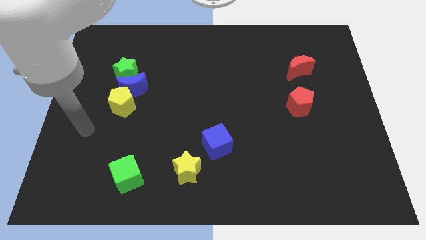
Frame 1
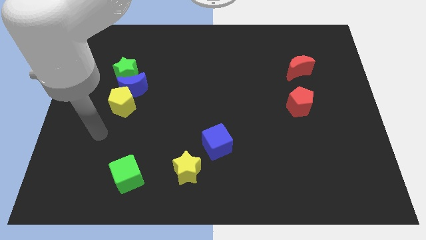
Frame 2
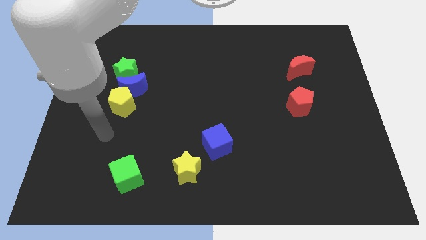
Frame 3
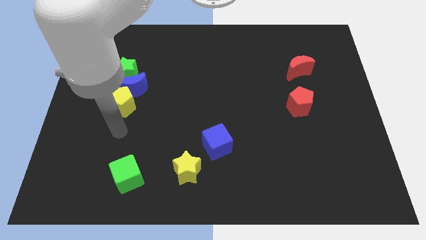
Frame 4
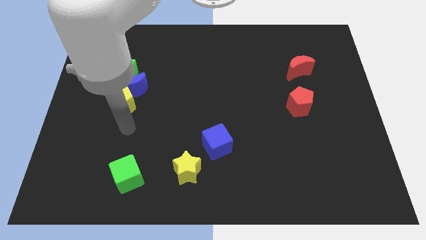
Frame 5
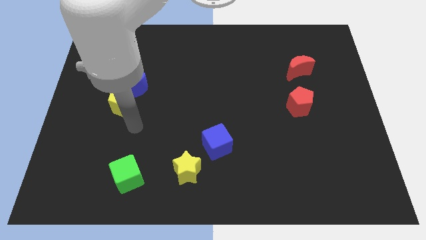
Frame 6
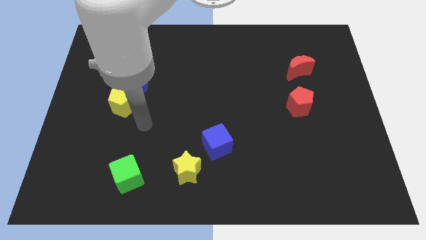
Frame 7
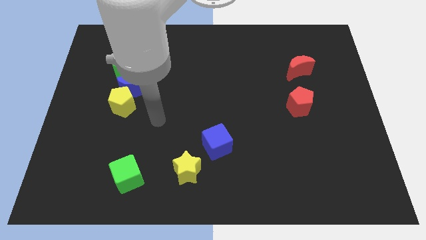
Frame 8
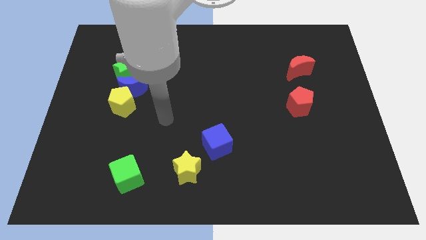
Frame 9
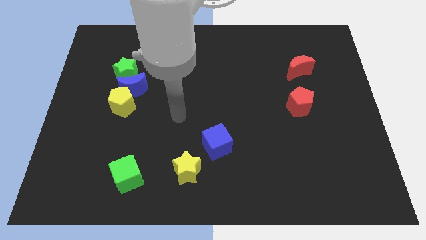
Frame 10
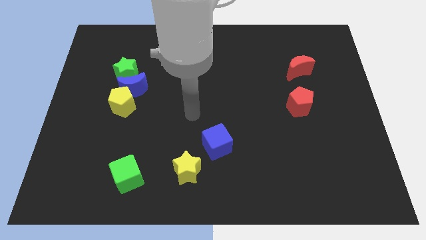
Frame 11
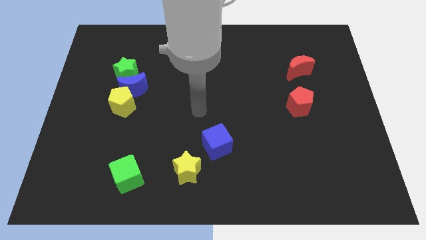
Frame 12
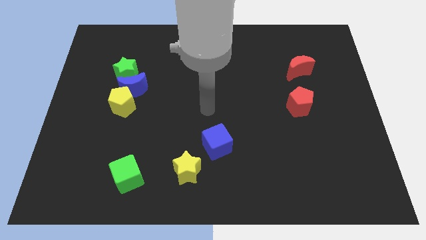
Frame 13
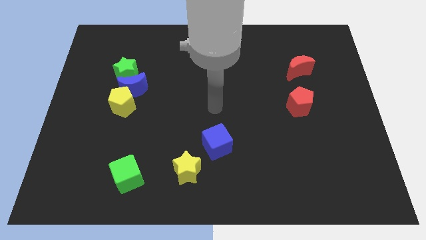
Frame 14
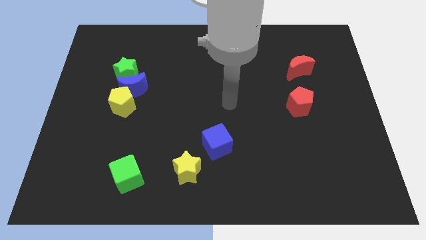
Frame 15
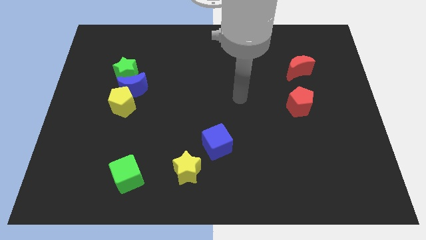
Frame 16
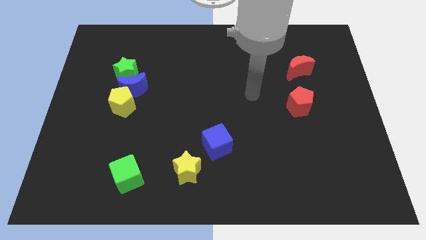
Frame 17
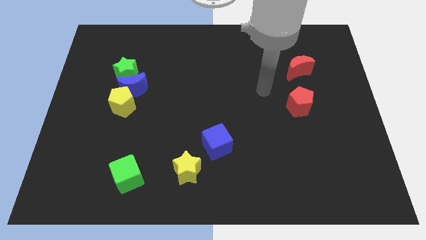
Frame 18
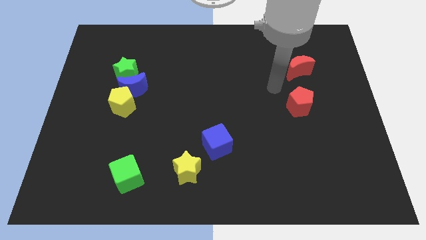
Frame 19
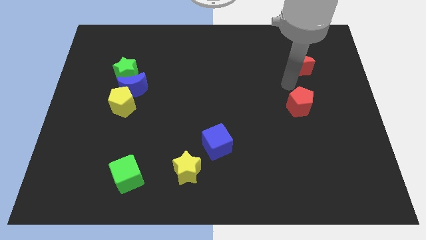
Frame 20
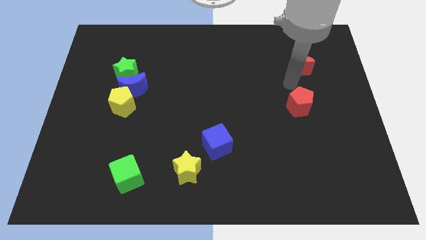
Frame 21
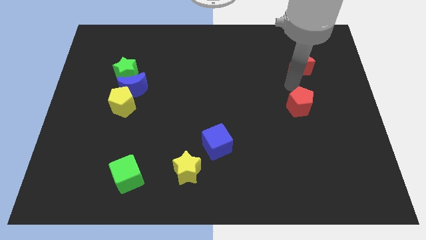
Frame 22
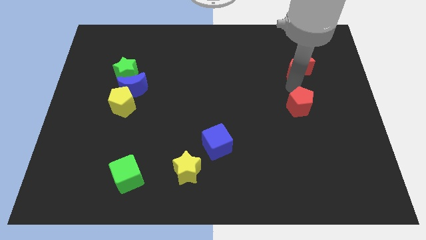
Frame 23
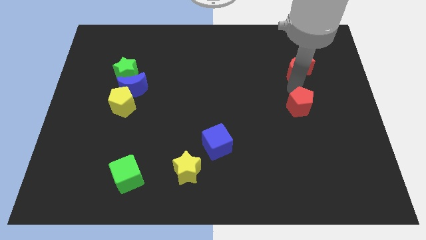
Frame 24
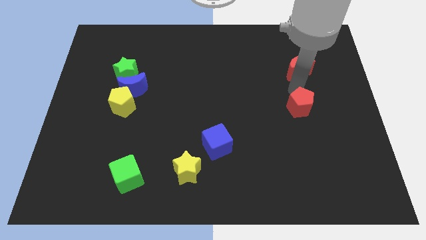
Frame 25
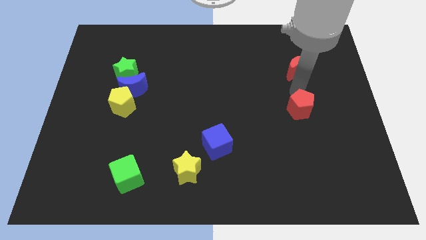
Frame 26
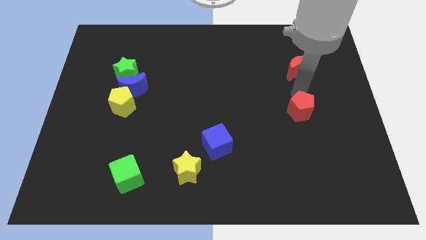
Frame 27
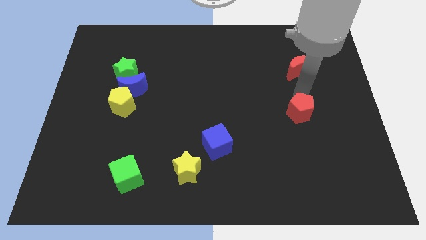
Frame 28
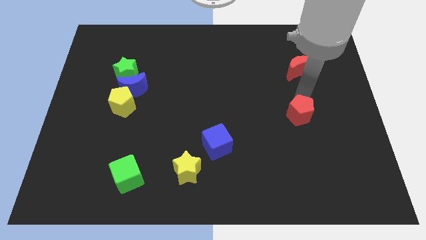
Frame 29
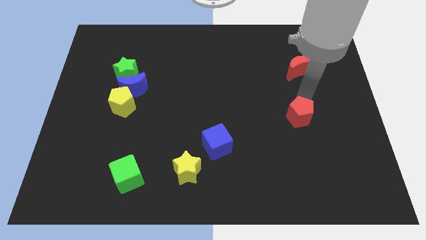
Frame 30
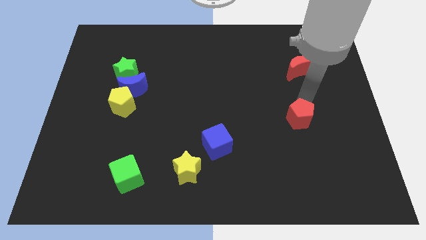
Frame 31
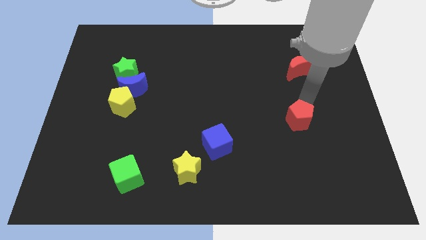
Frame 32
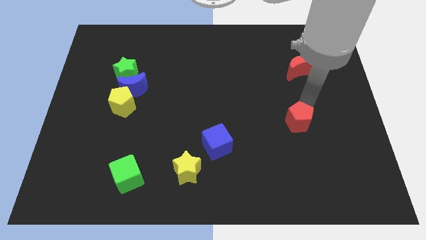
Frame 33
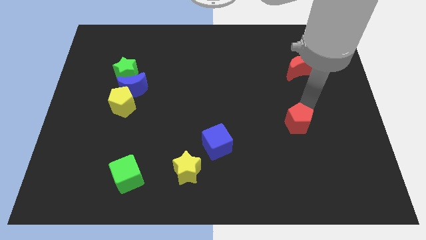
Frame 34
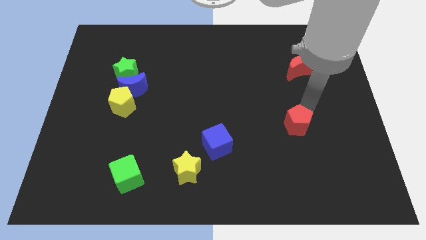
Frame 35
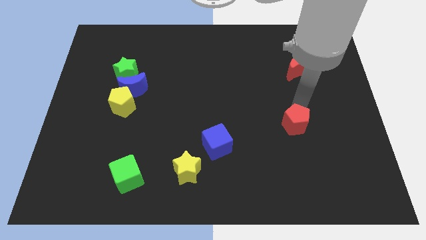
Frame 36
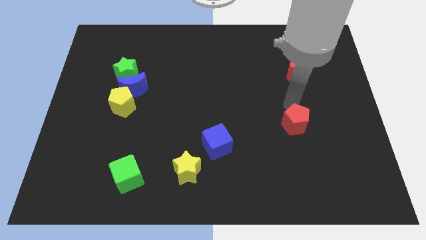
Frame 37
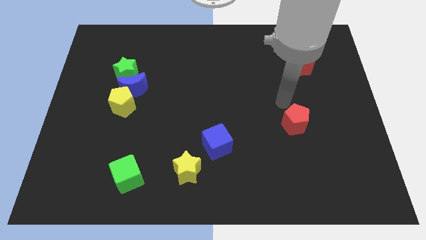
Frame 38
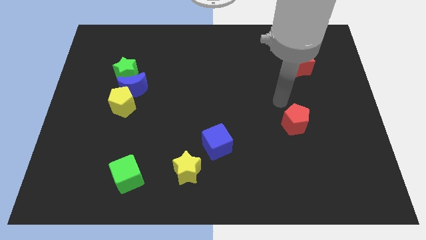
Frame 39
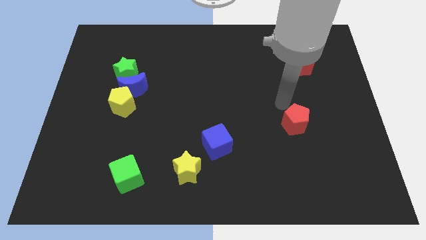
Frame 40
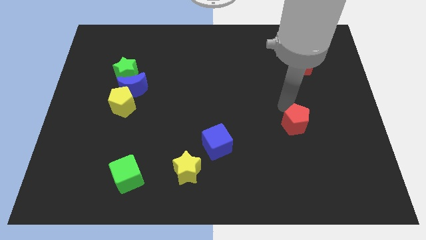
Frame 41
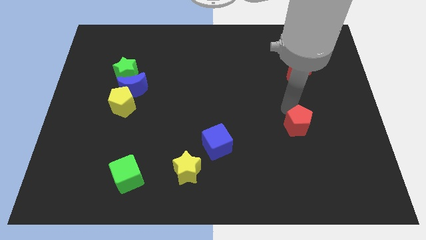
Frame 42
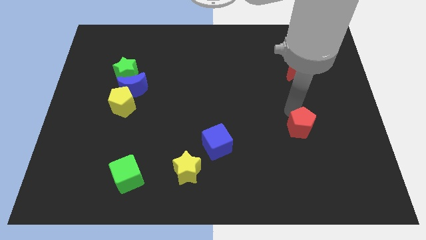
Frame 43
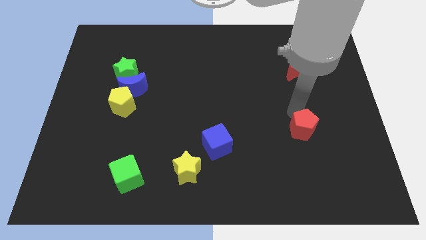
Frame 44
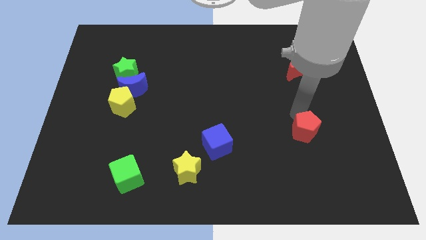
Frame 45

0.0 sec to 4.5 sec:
slightly move the red pentagon down

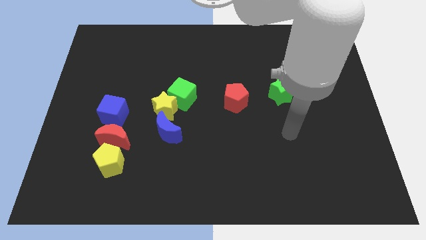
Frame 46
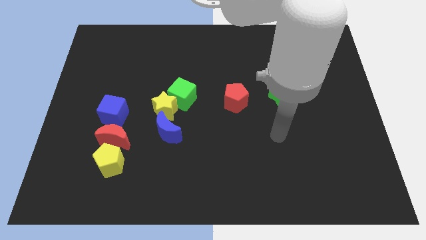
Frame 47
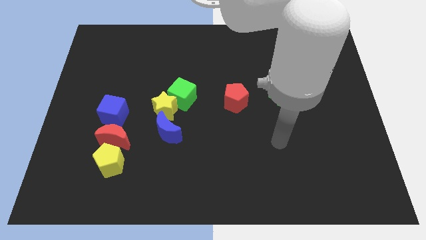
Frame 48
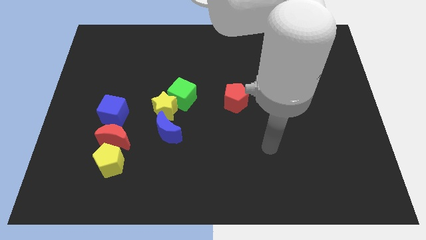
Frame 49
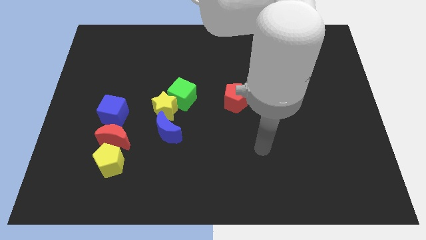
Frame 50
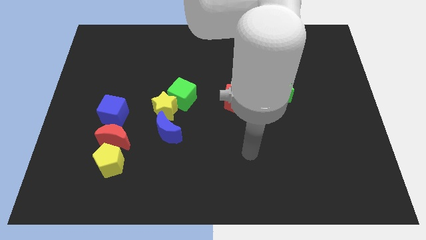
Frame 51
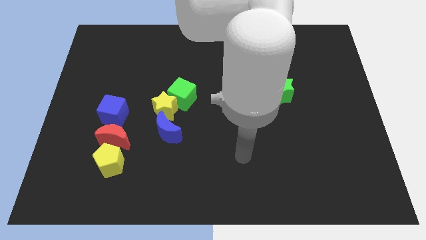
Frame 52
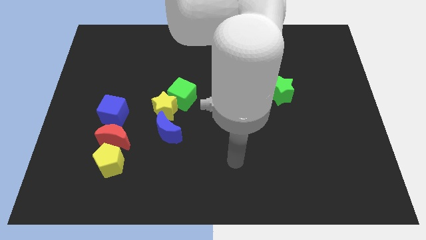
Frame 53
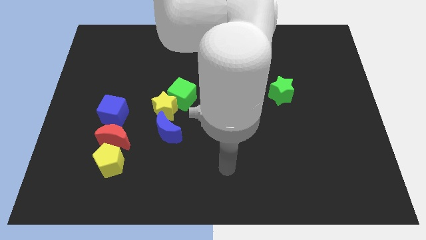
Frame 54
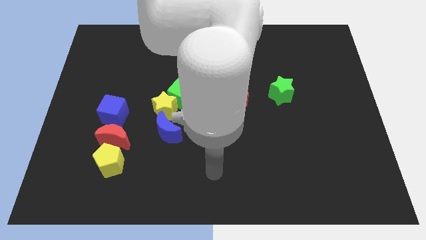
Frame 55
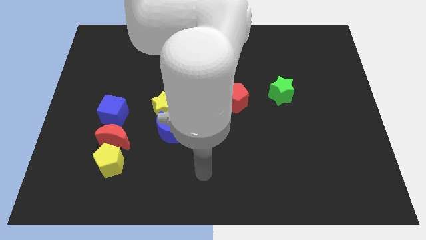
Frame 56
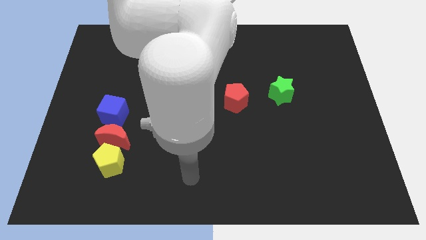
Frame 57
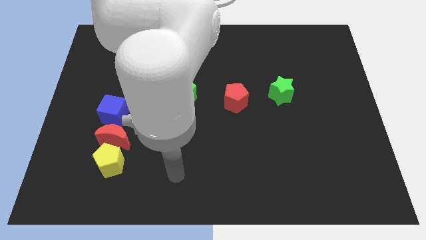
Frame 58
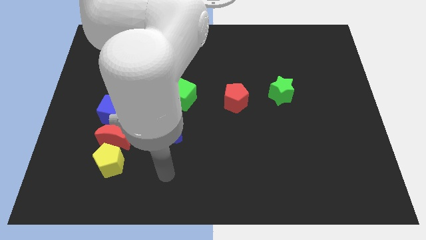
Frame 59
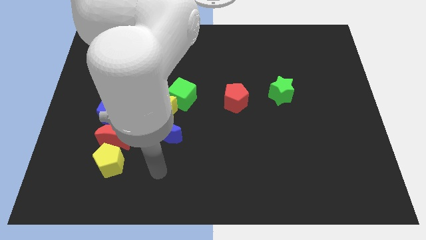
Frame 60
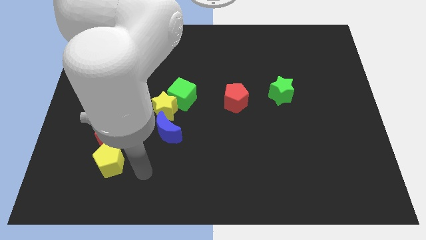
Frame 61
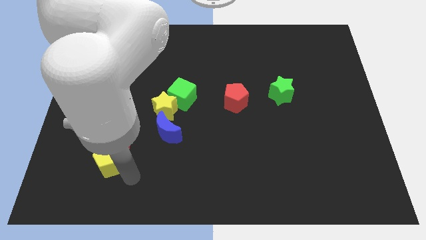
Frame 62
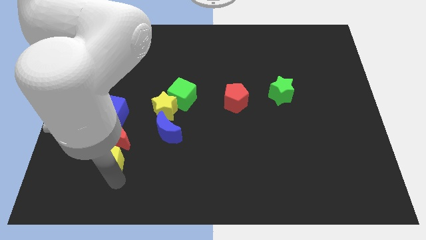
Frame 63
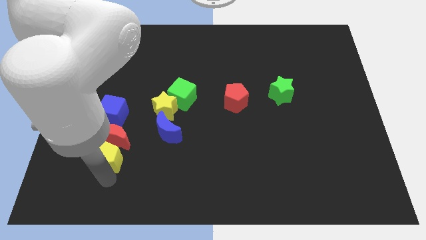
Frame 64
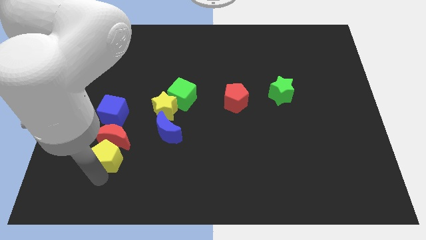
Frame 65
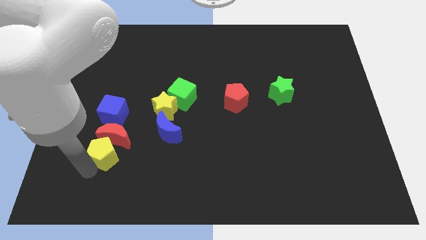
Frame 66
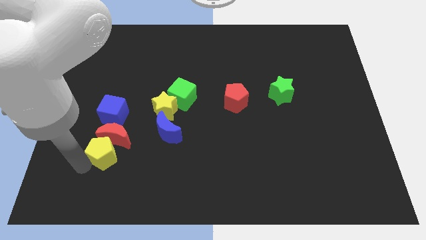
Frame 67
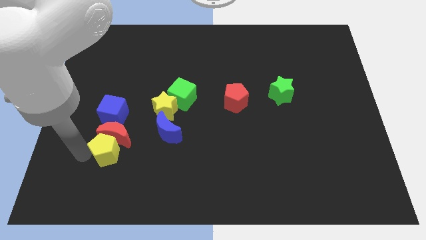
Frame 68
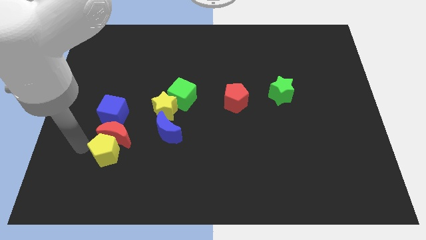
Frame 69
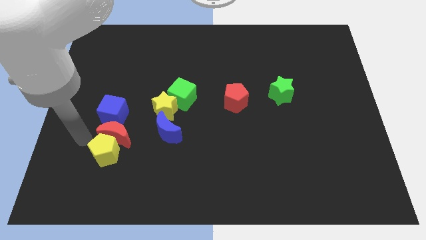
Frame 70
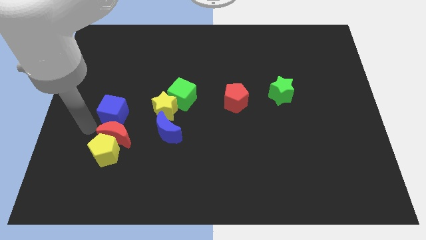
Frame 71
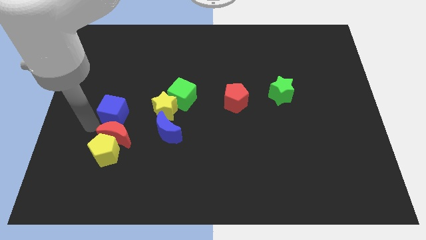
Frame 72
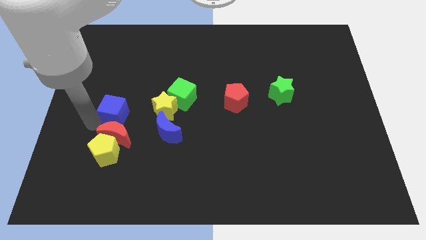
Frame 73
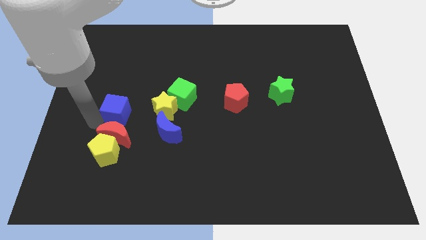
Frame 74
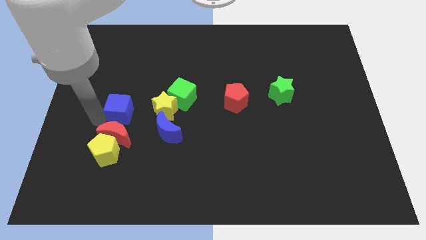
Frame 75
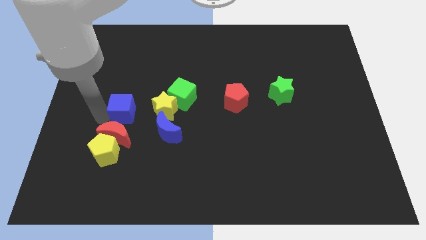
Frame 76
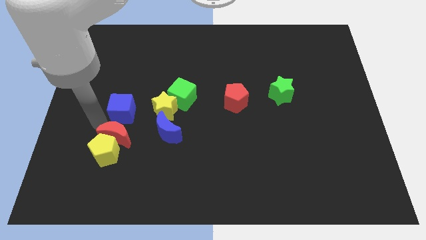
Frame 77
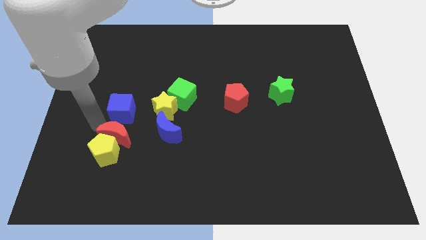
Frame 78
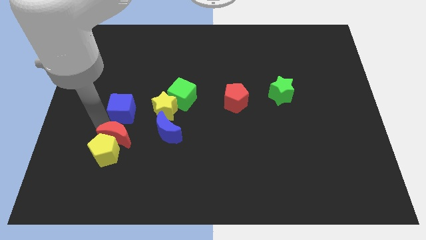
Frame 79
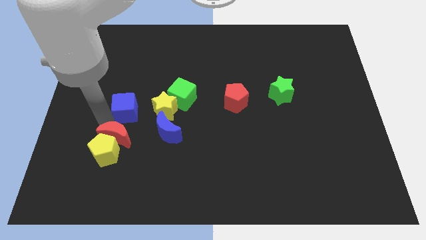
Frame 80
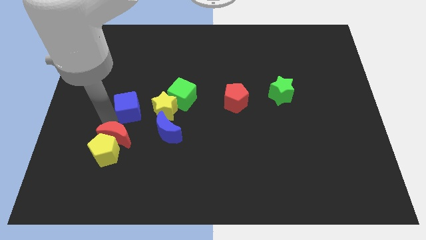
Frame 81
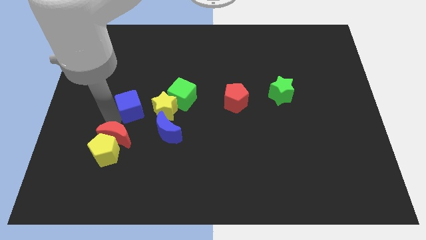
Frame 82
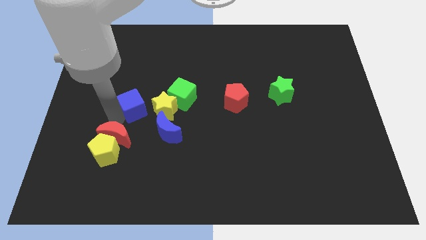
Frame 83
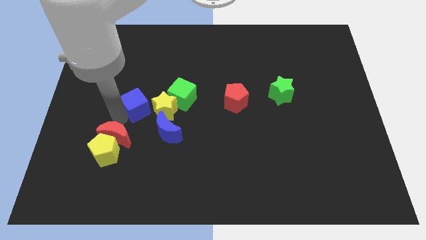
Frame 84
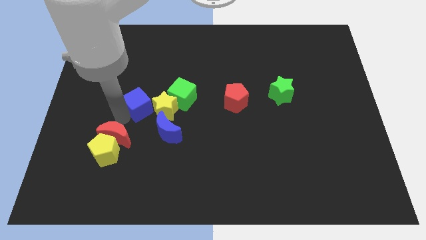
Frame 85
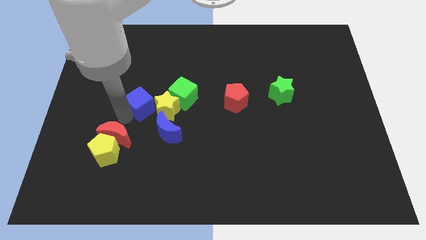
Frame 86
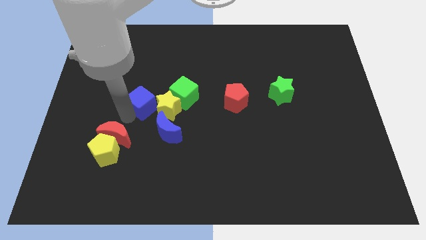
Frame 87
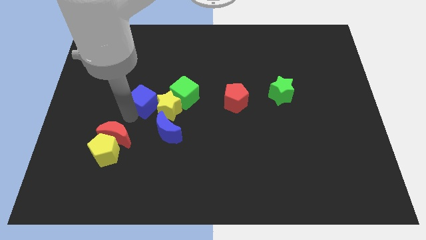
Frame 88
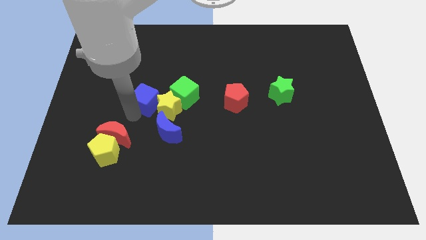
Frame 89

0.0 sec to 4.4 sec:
slightly slide the blue cube to the right
